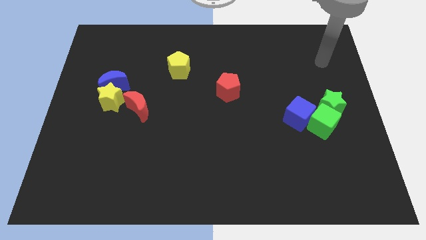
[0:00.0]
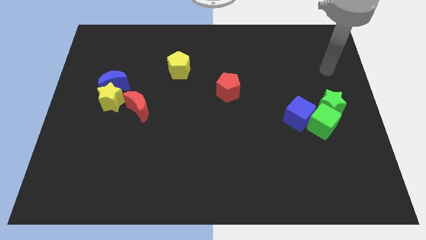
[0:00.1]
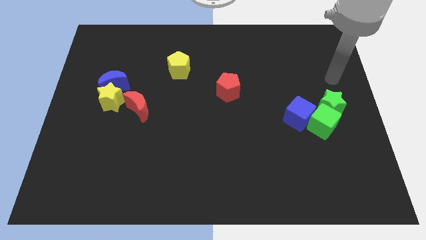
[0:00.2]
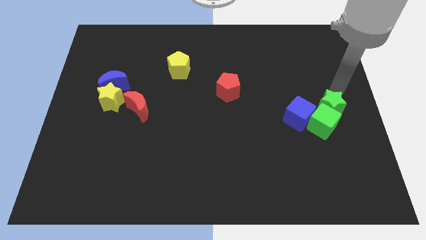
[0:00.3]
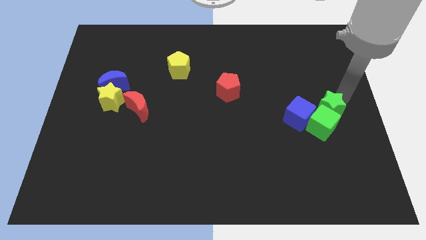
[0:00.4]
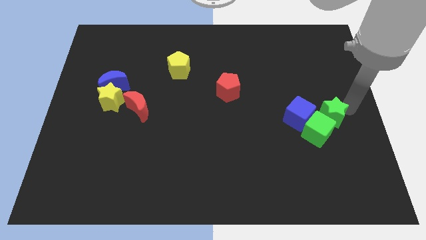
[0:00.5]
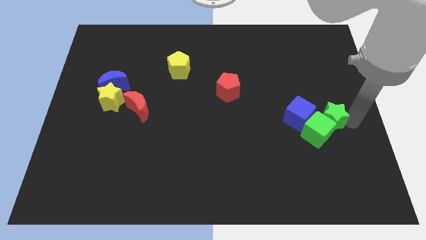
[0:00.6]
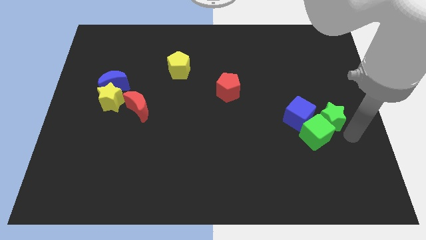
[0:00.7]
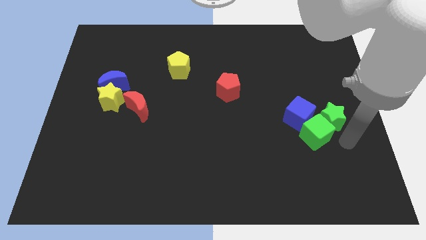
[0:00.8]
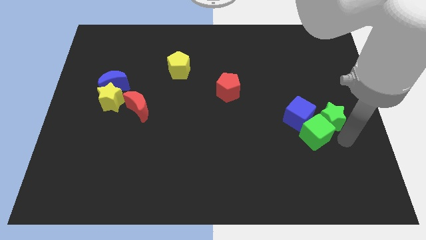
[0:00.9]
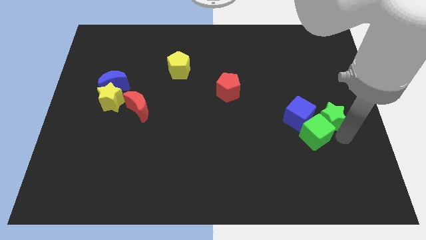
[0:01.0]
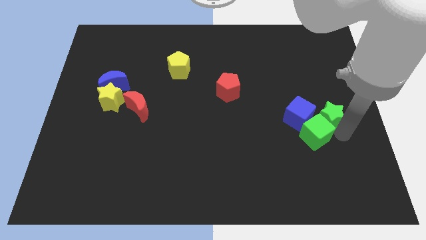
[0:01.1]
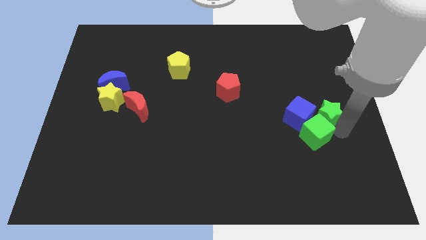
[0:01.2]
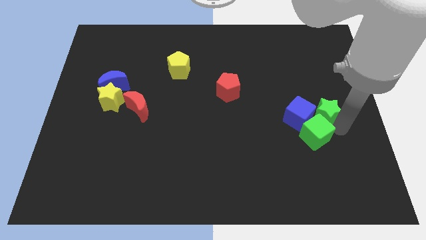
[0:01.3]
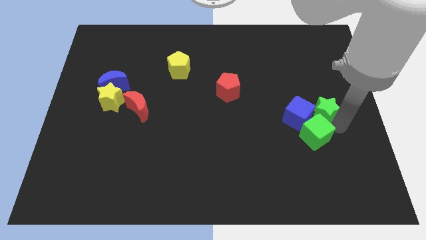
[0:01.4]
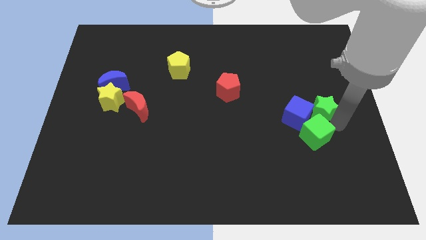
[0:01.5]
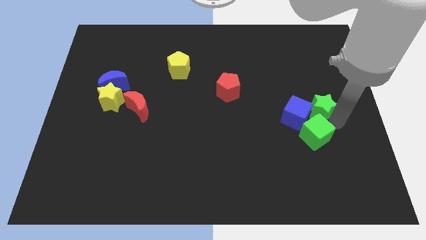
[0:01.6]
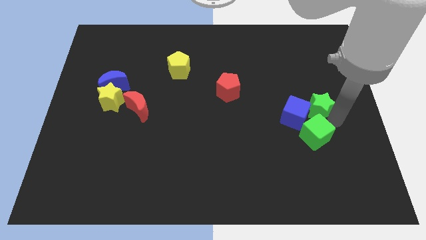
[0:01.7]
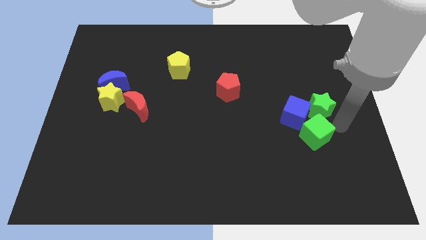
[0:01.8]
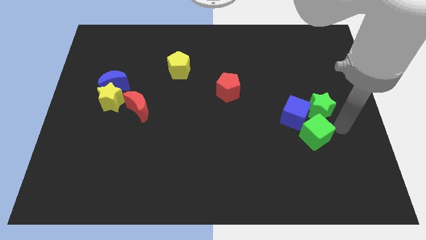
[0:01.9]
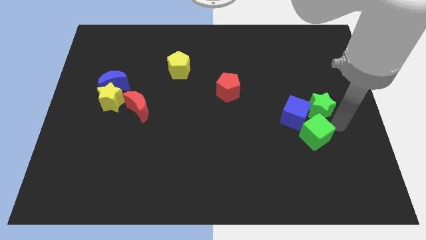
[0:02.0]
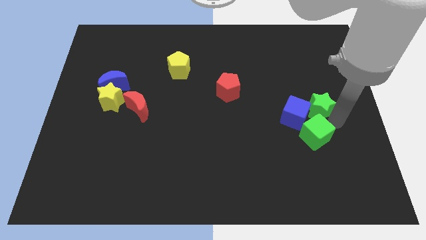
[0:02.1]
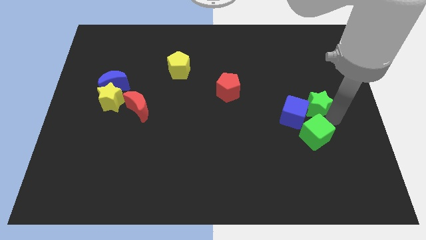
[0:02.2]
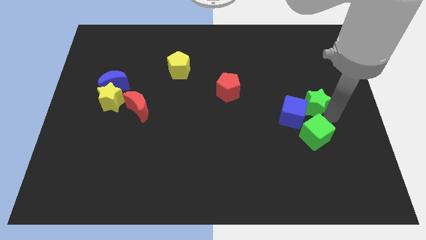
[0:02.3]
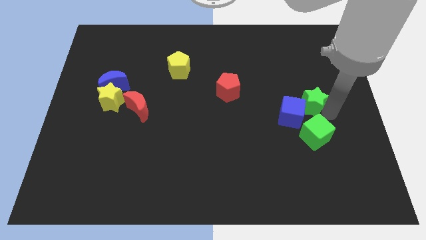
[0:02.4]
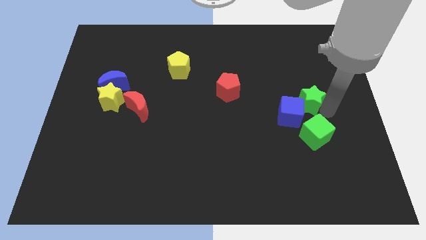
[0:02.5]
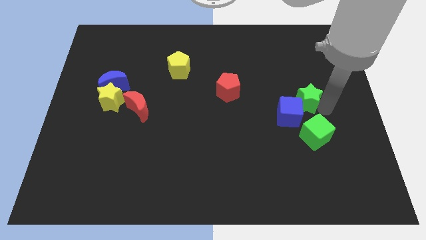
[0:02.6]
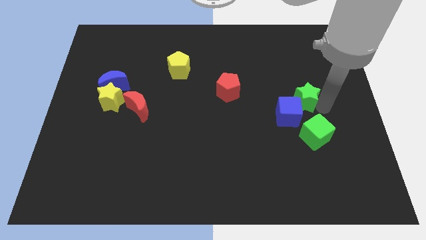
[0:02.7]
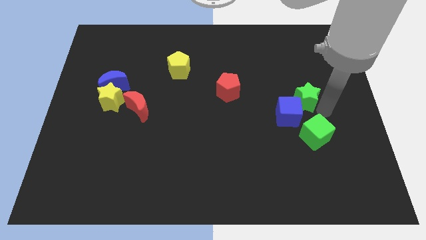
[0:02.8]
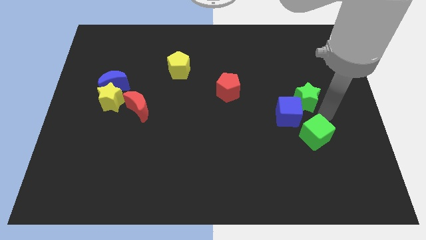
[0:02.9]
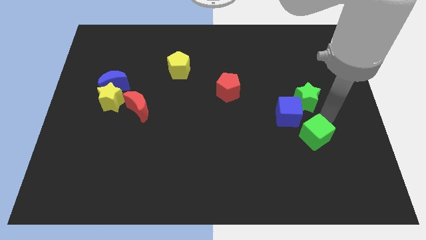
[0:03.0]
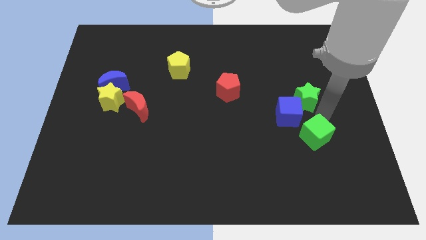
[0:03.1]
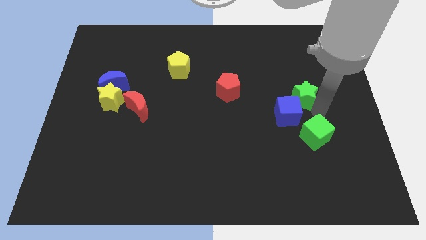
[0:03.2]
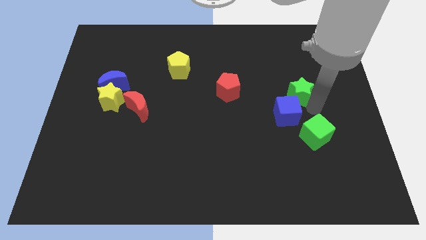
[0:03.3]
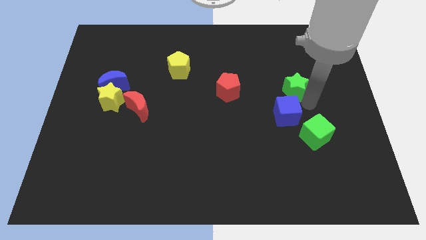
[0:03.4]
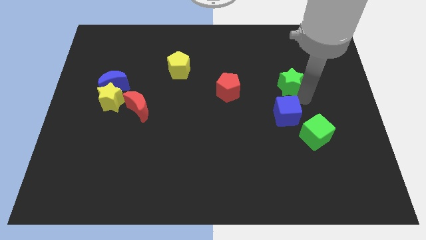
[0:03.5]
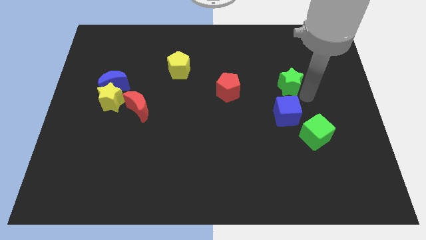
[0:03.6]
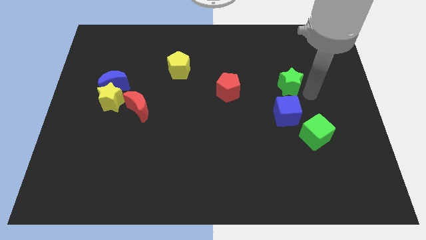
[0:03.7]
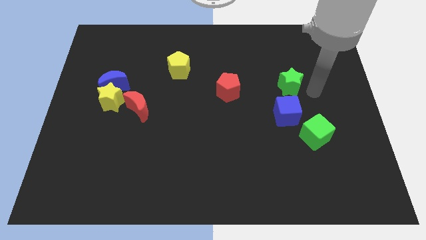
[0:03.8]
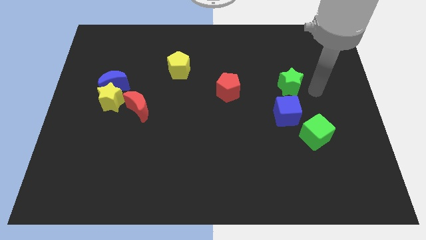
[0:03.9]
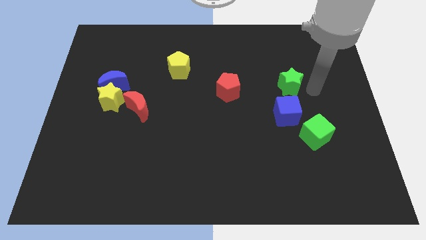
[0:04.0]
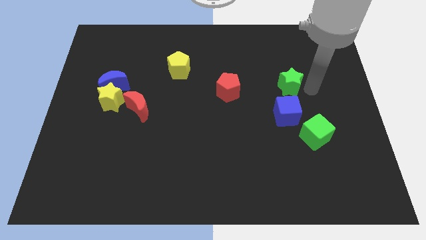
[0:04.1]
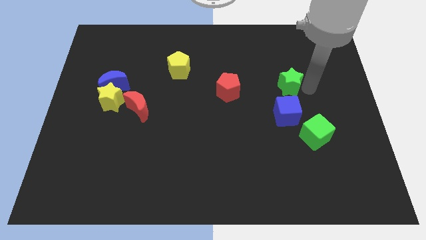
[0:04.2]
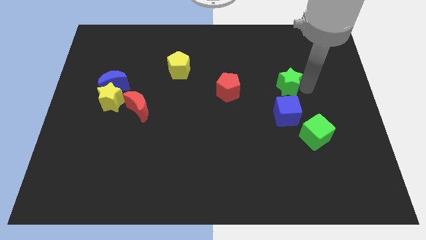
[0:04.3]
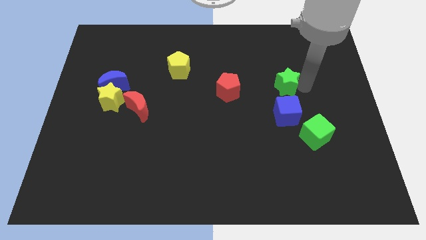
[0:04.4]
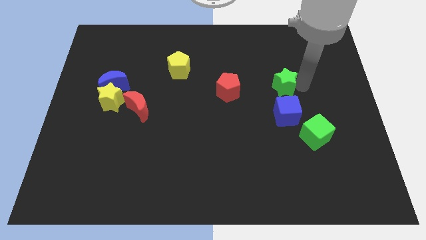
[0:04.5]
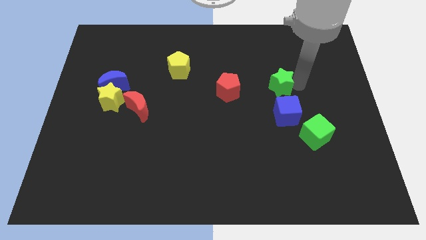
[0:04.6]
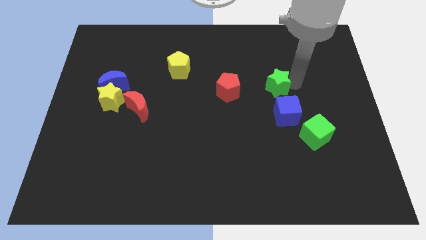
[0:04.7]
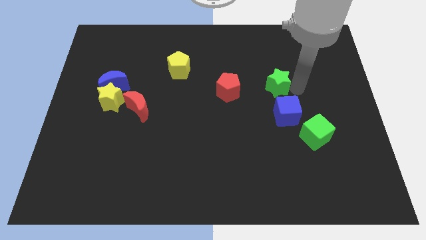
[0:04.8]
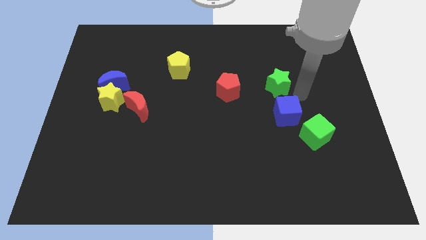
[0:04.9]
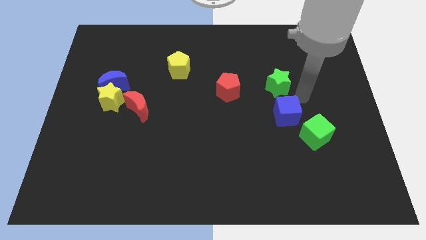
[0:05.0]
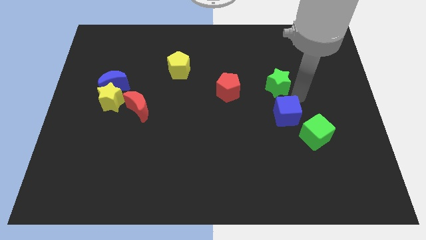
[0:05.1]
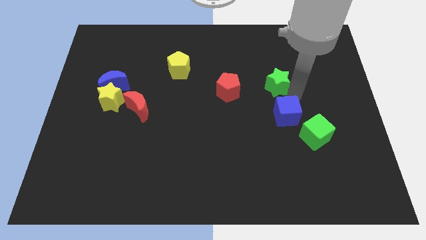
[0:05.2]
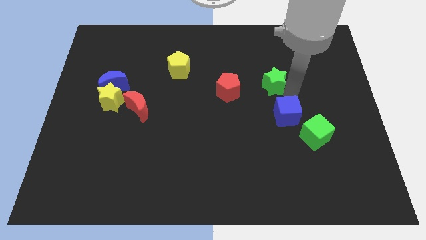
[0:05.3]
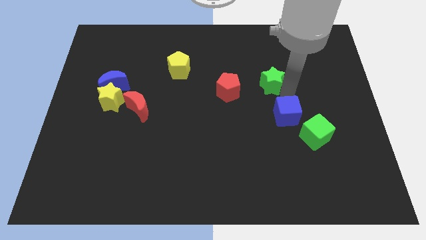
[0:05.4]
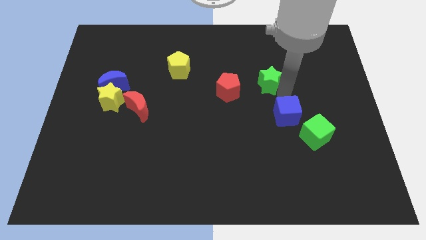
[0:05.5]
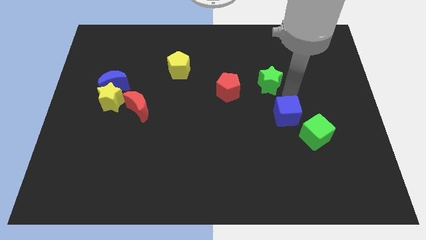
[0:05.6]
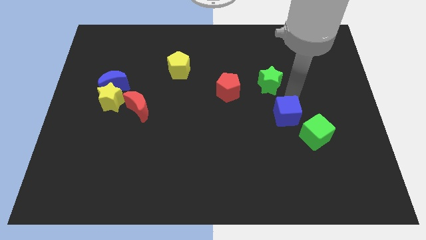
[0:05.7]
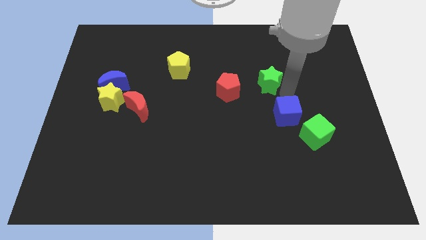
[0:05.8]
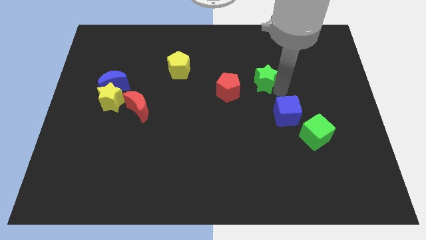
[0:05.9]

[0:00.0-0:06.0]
push the green star to the top right of the red pentagon

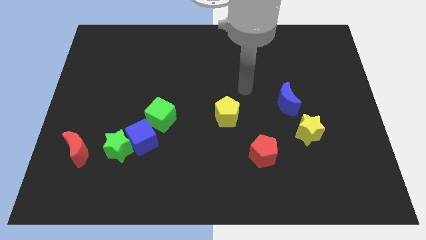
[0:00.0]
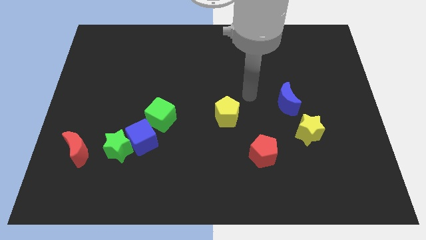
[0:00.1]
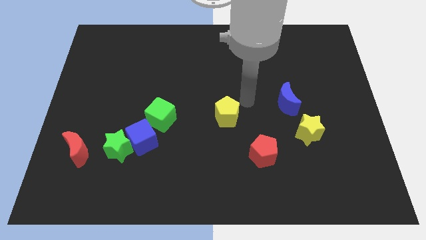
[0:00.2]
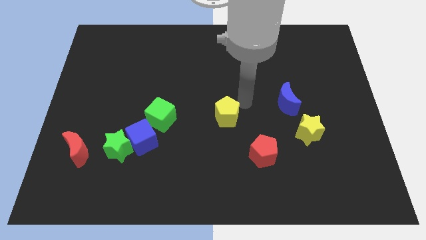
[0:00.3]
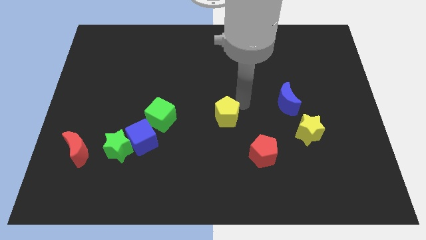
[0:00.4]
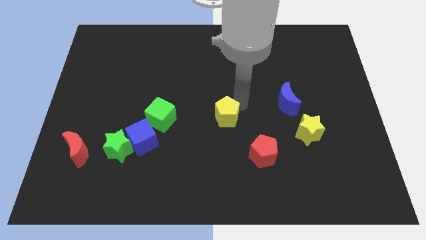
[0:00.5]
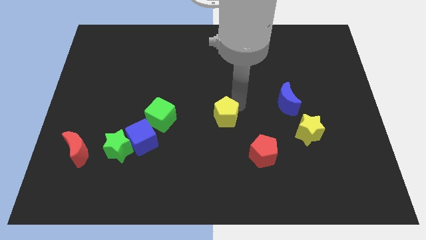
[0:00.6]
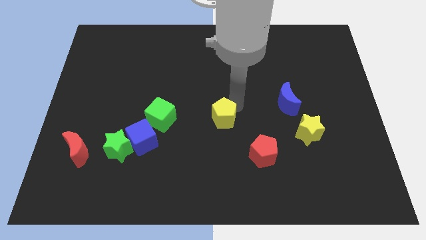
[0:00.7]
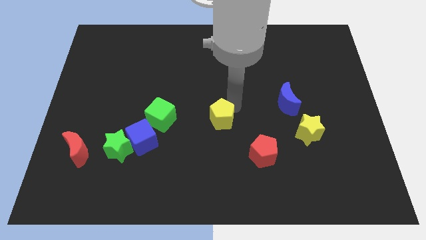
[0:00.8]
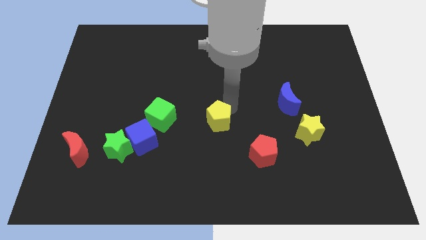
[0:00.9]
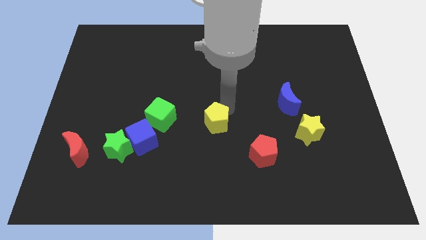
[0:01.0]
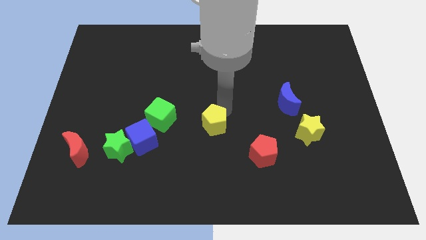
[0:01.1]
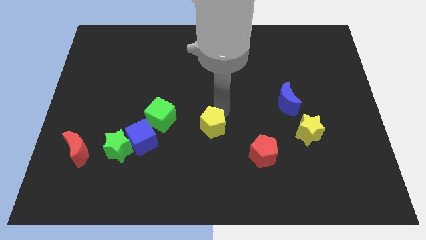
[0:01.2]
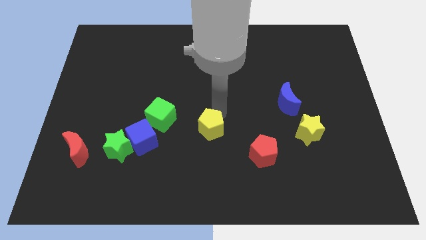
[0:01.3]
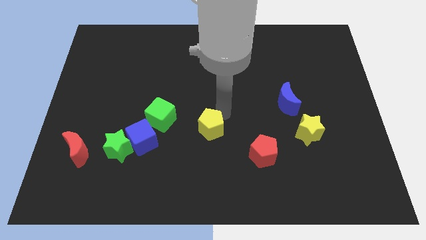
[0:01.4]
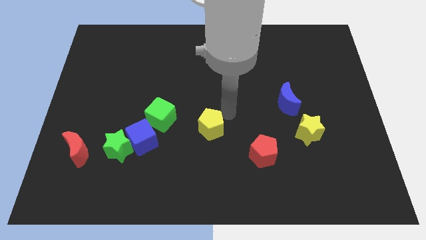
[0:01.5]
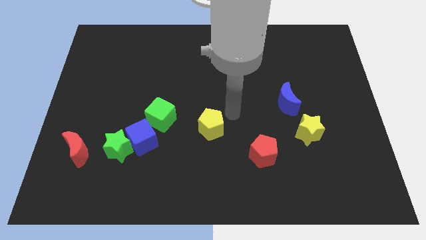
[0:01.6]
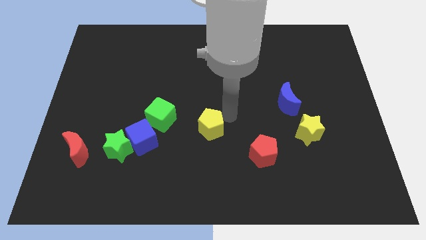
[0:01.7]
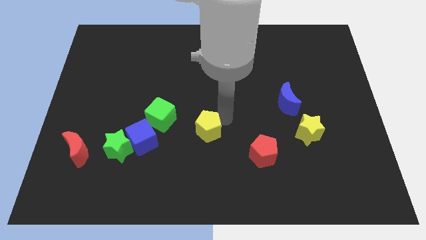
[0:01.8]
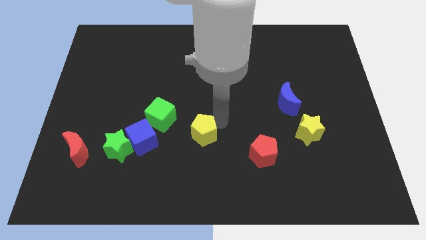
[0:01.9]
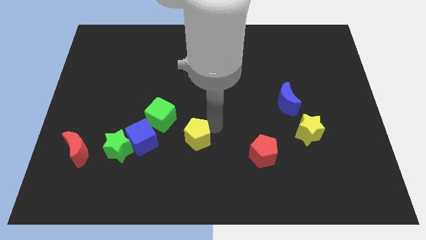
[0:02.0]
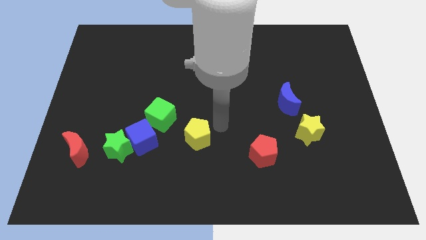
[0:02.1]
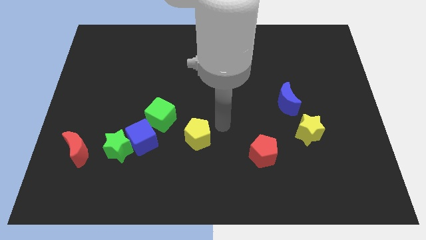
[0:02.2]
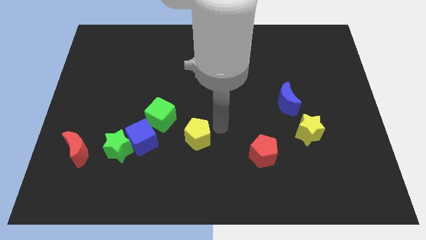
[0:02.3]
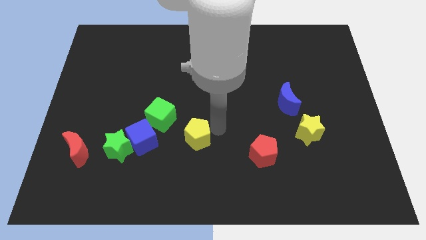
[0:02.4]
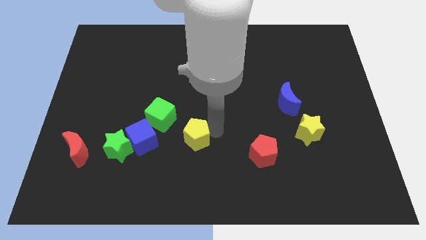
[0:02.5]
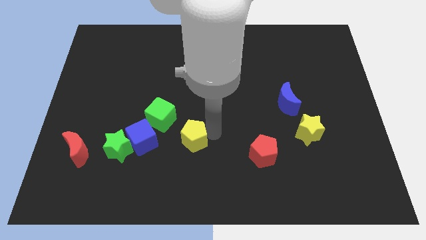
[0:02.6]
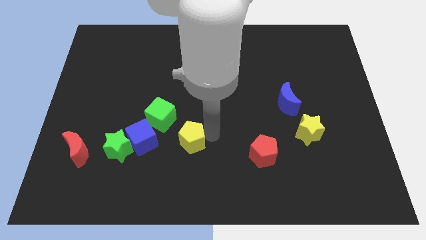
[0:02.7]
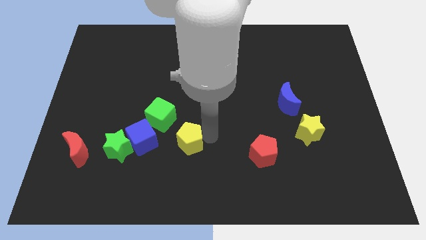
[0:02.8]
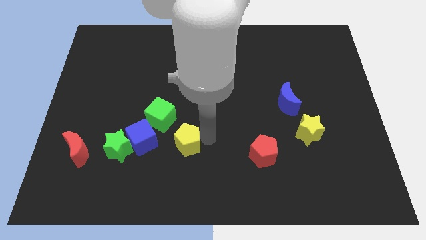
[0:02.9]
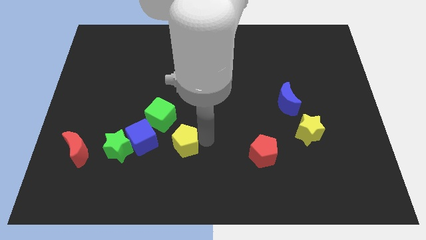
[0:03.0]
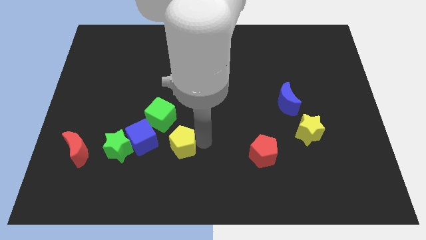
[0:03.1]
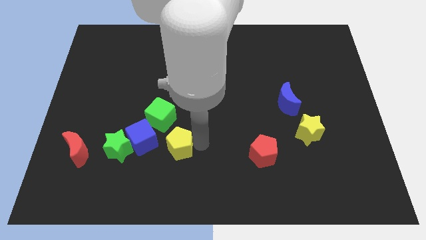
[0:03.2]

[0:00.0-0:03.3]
move the yellow pentagon to the bottom of the green cube
